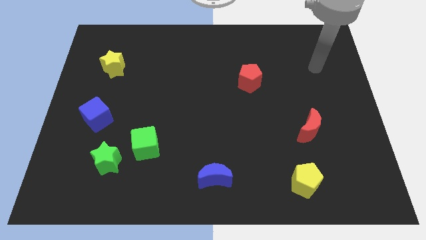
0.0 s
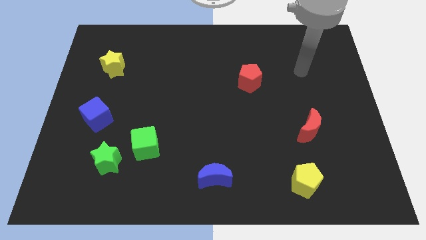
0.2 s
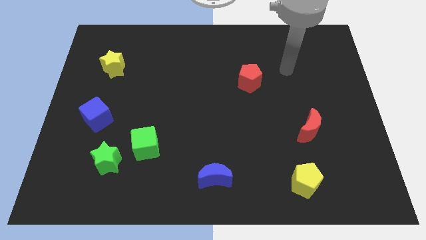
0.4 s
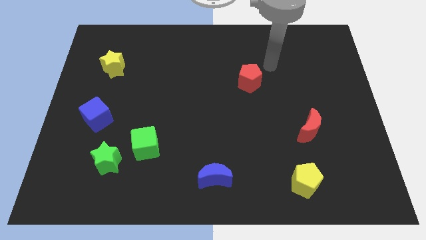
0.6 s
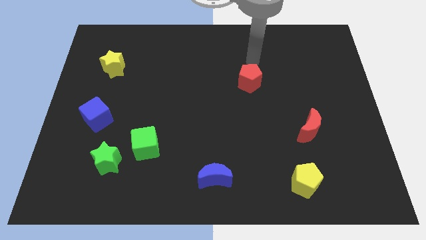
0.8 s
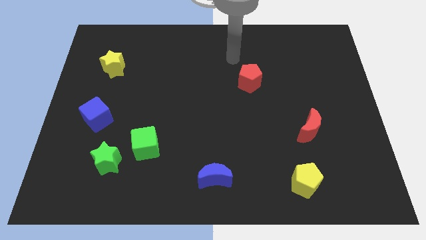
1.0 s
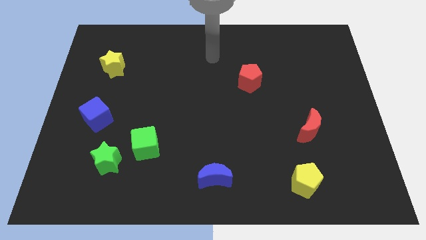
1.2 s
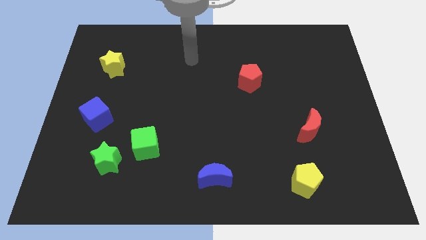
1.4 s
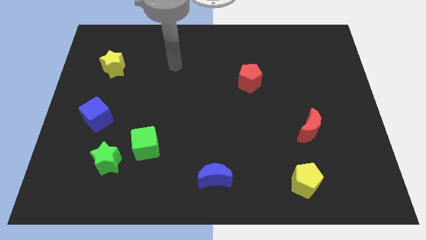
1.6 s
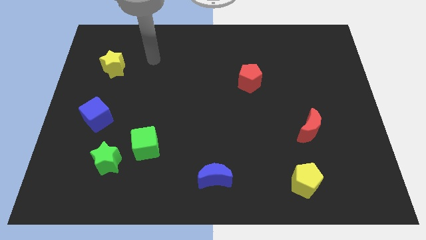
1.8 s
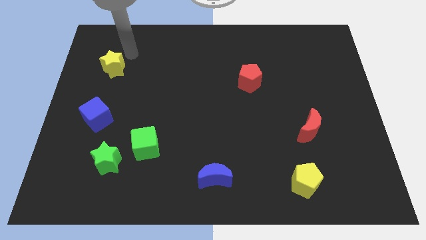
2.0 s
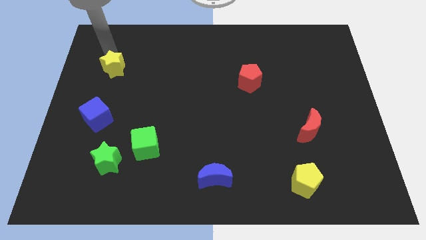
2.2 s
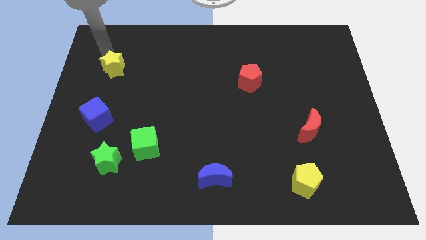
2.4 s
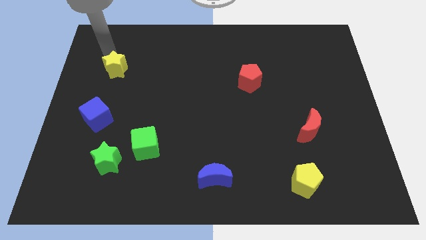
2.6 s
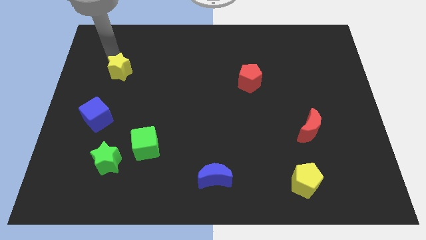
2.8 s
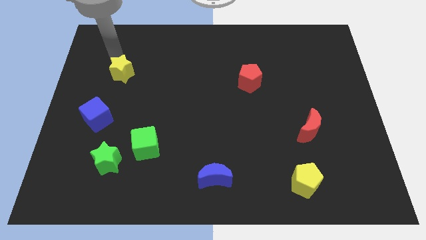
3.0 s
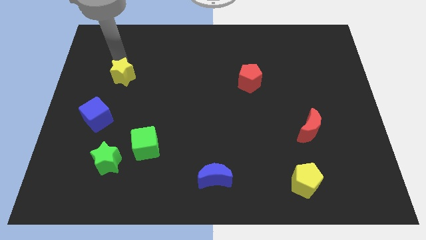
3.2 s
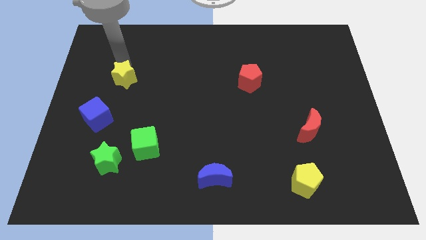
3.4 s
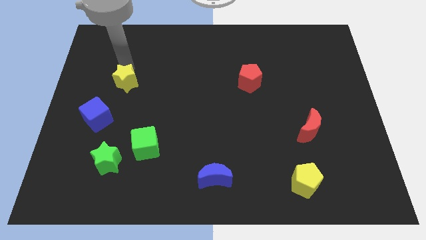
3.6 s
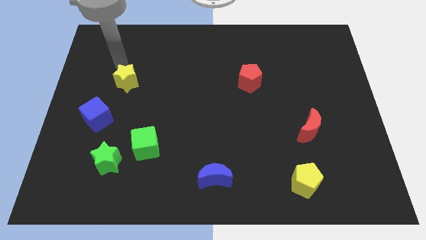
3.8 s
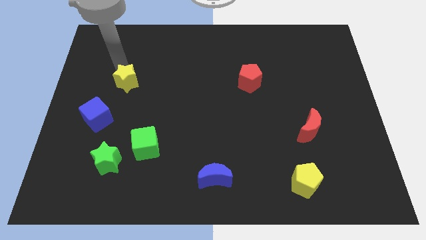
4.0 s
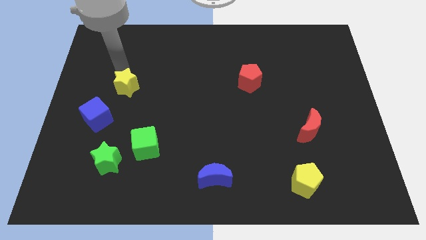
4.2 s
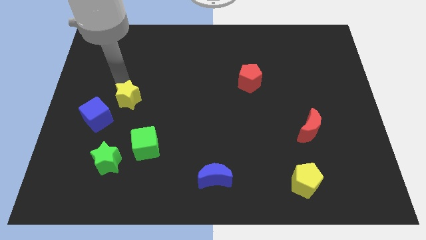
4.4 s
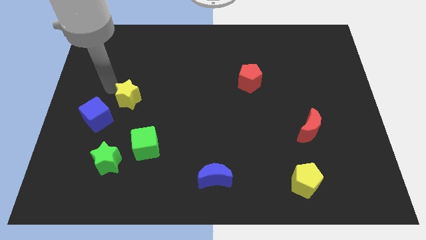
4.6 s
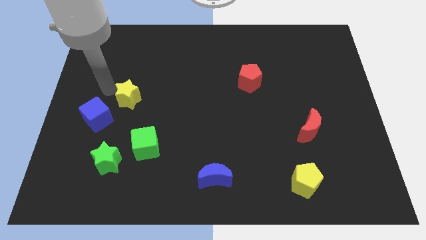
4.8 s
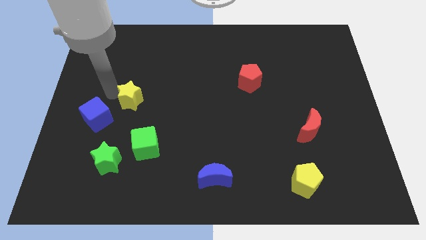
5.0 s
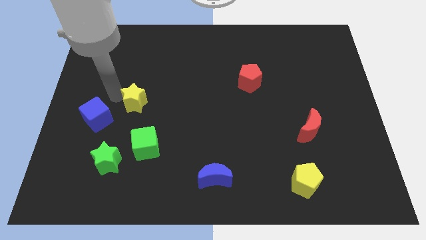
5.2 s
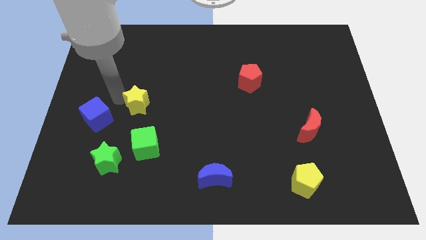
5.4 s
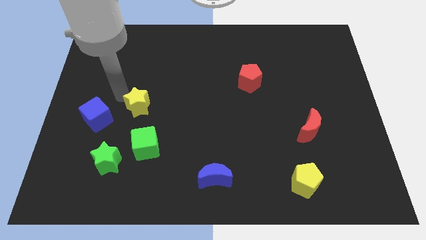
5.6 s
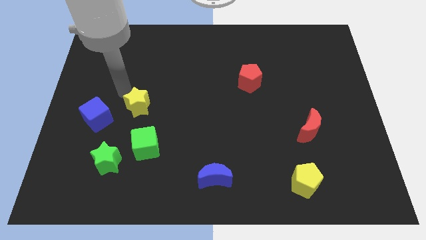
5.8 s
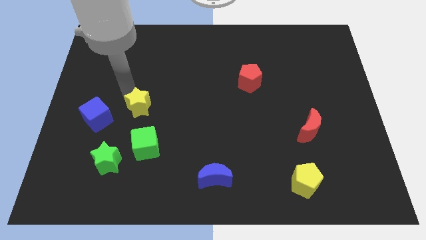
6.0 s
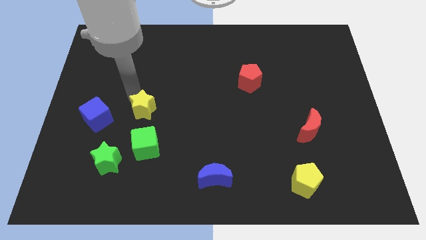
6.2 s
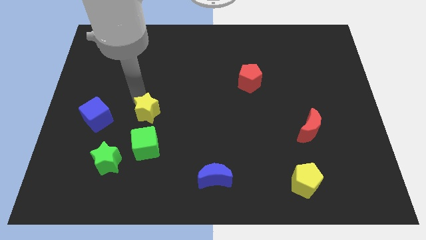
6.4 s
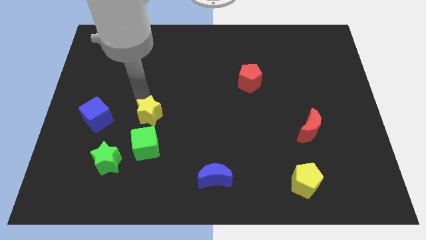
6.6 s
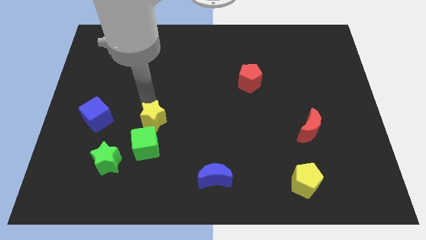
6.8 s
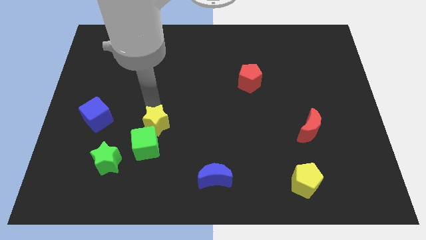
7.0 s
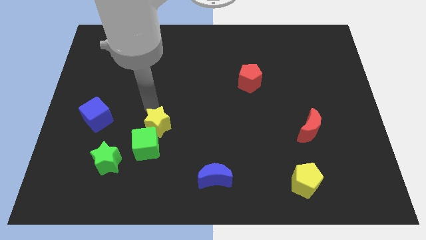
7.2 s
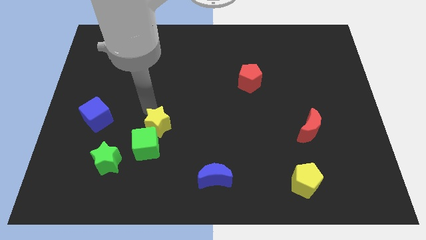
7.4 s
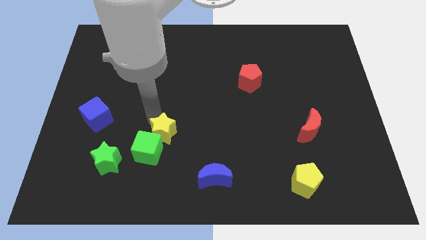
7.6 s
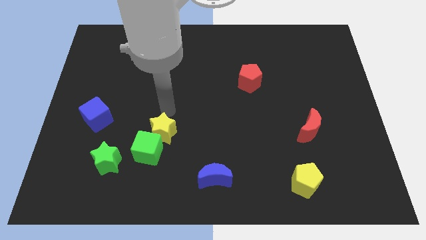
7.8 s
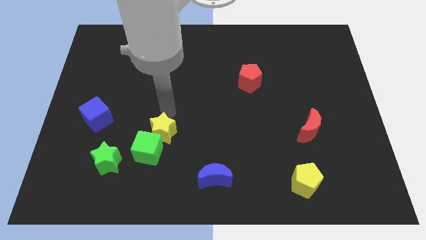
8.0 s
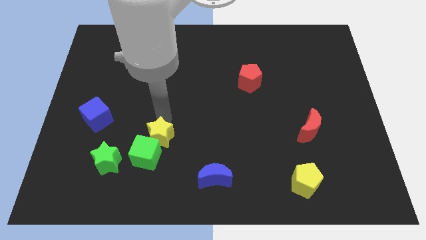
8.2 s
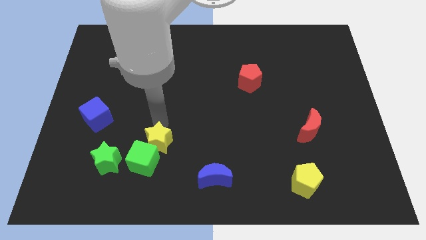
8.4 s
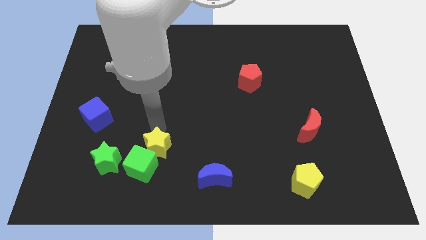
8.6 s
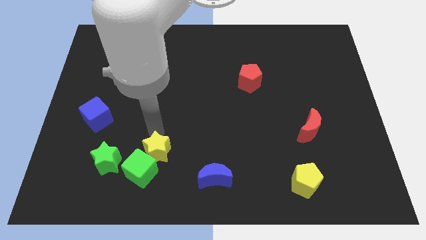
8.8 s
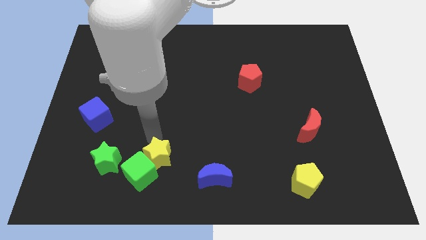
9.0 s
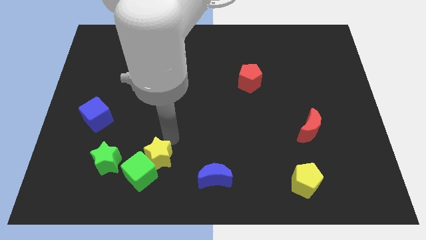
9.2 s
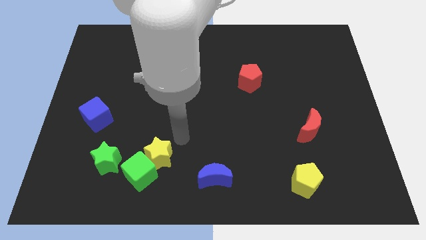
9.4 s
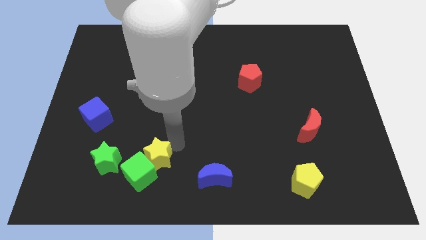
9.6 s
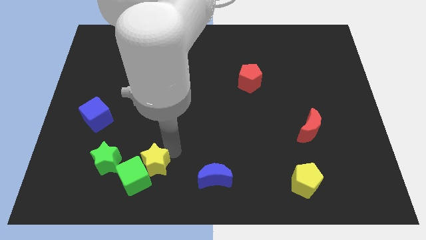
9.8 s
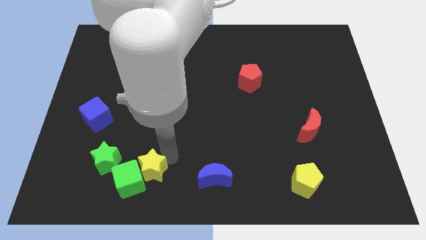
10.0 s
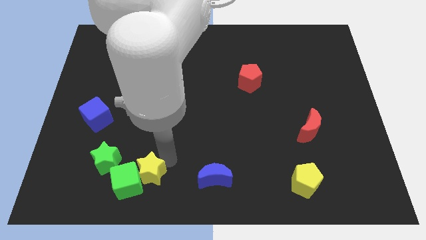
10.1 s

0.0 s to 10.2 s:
move the yellow star diagonally down and to the right of the green star
